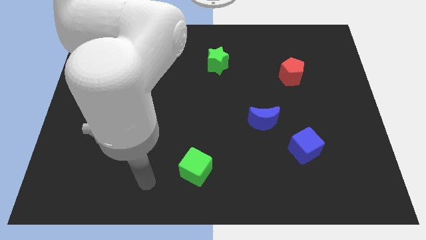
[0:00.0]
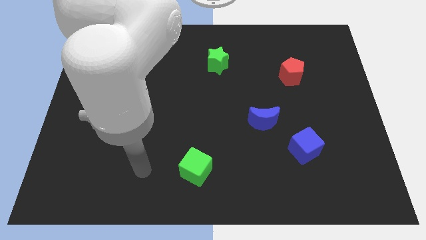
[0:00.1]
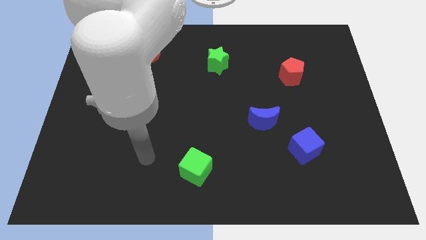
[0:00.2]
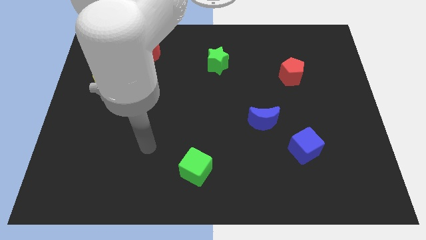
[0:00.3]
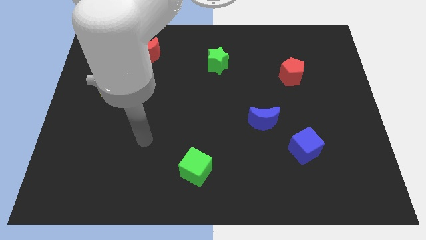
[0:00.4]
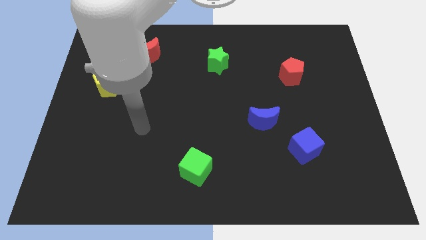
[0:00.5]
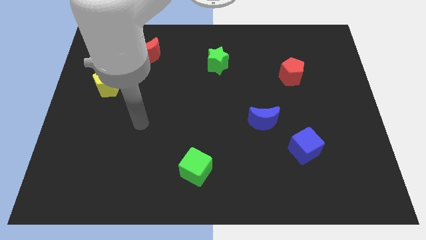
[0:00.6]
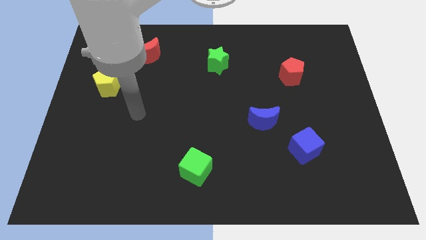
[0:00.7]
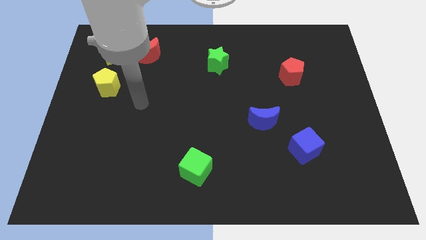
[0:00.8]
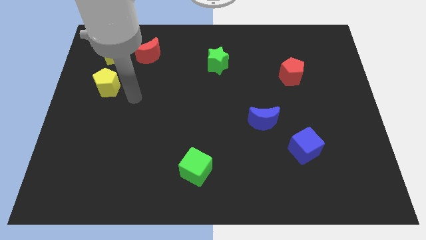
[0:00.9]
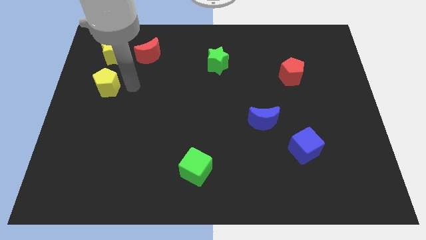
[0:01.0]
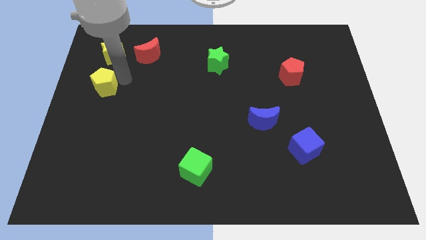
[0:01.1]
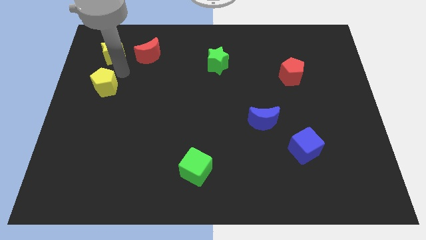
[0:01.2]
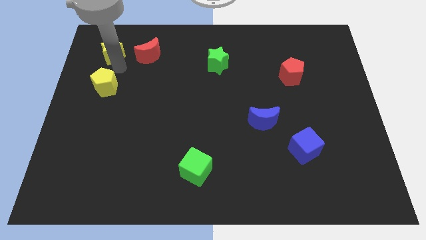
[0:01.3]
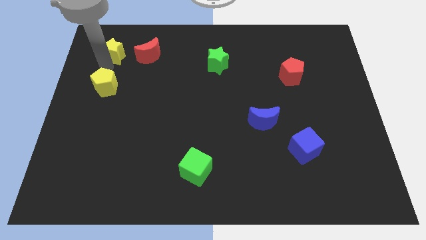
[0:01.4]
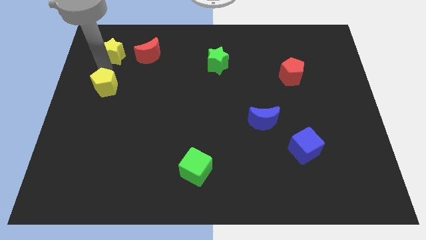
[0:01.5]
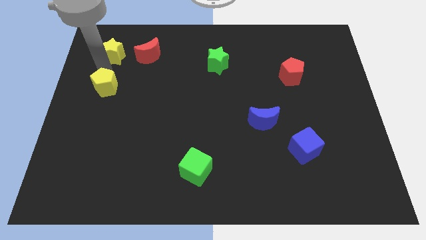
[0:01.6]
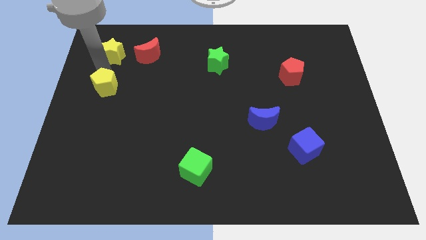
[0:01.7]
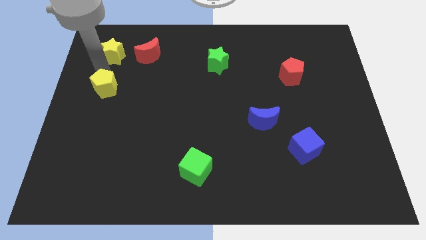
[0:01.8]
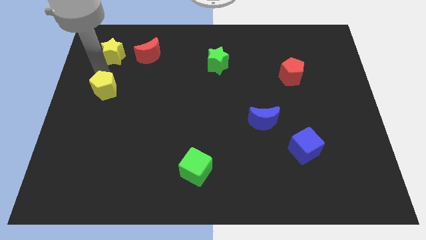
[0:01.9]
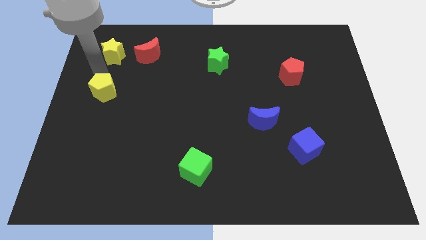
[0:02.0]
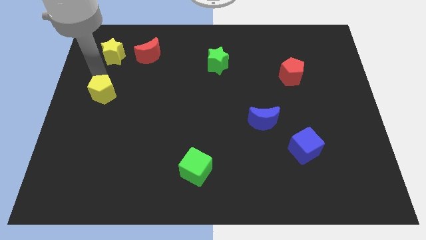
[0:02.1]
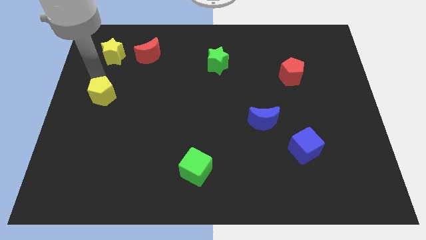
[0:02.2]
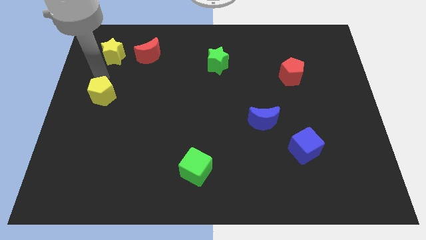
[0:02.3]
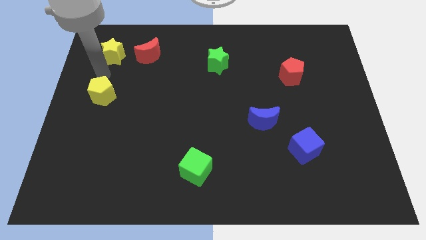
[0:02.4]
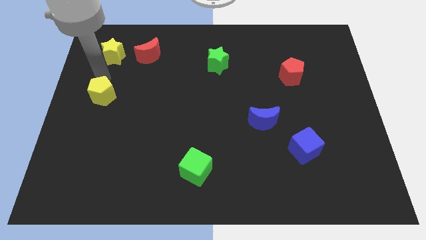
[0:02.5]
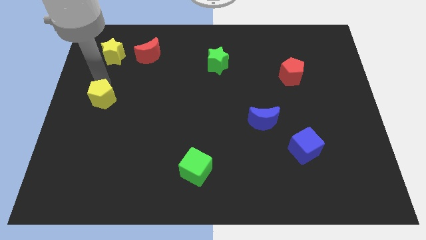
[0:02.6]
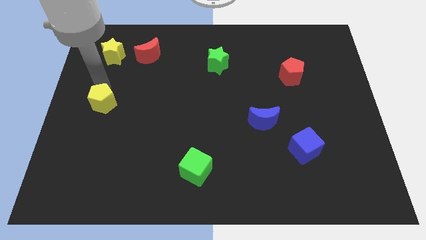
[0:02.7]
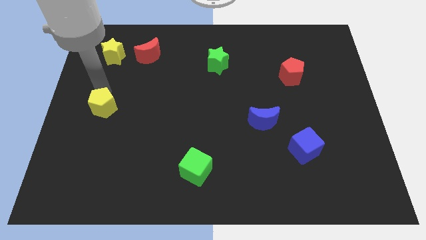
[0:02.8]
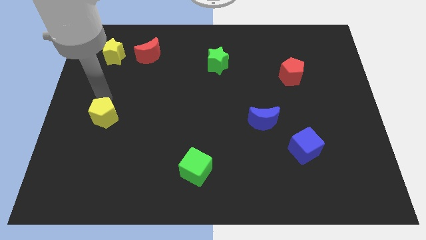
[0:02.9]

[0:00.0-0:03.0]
push the yellow pentagon down somewhat

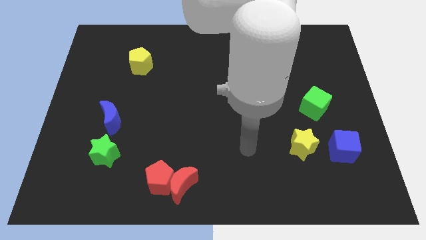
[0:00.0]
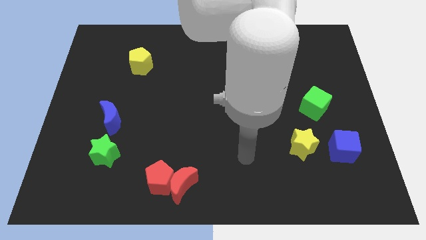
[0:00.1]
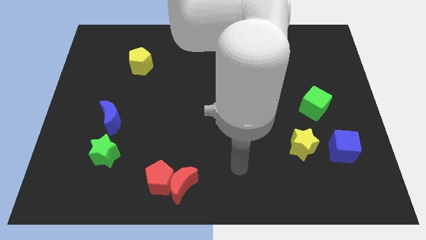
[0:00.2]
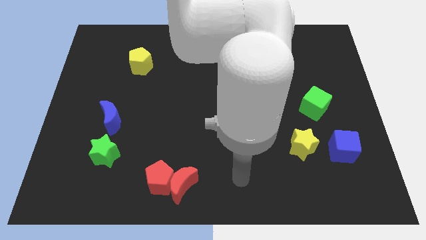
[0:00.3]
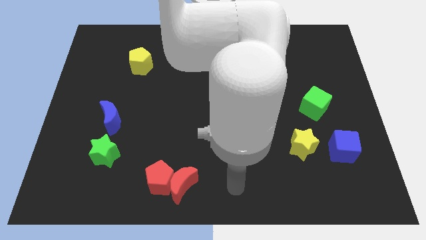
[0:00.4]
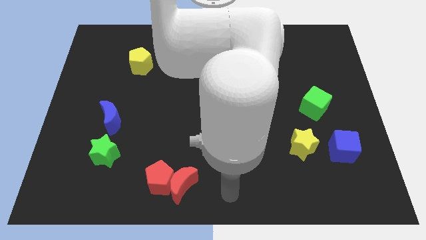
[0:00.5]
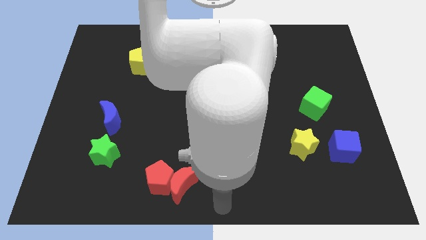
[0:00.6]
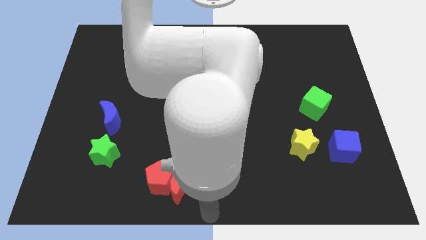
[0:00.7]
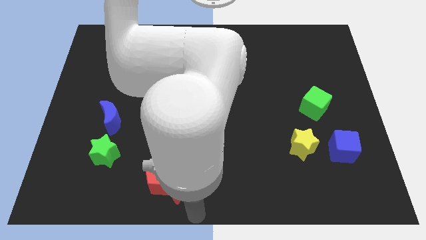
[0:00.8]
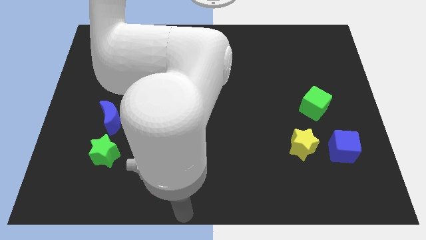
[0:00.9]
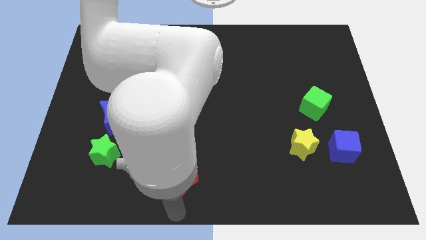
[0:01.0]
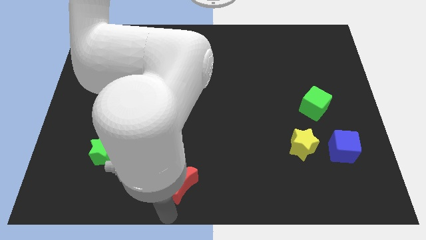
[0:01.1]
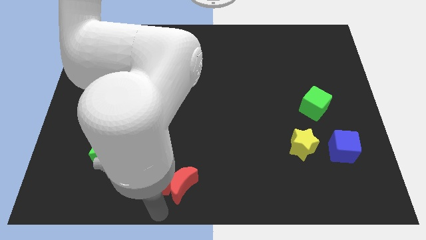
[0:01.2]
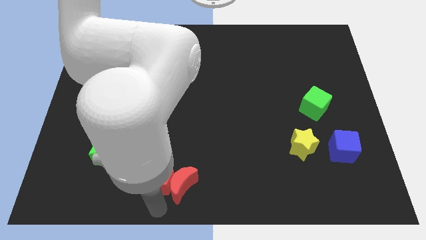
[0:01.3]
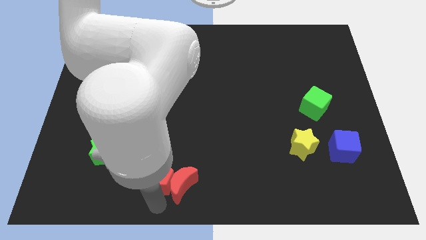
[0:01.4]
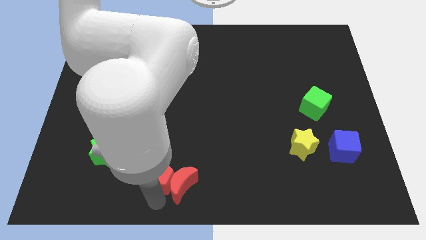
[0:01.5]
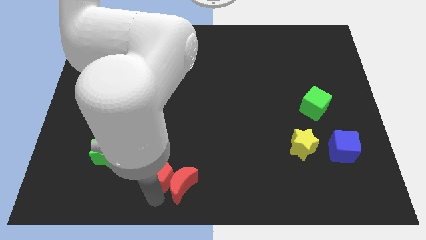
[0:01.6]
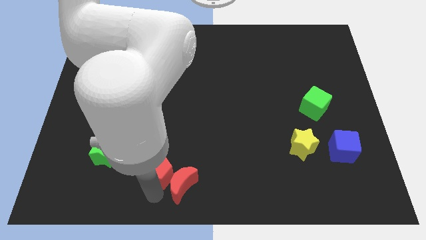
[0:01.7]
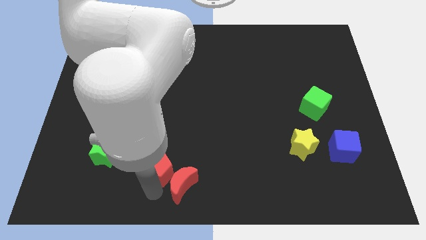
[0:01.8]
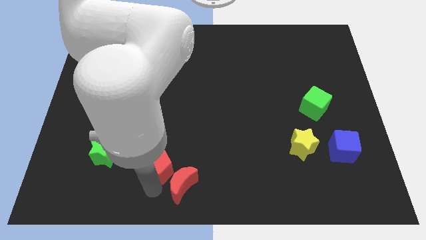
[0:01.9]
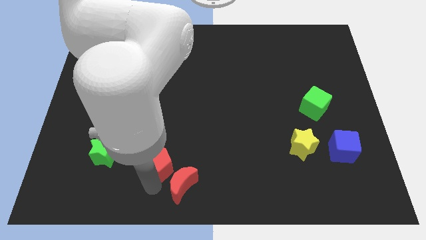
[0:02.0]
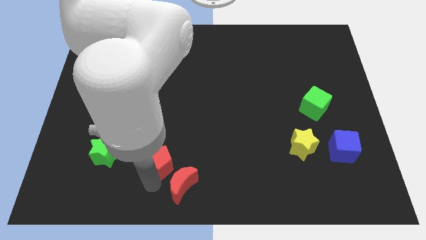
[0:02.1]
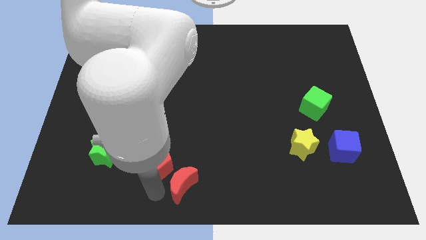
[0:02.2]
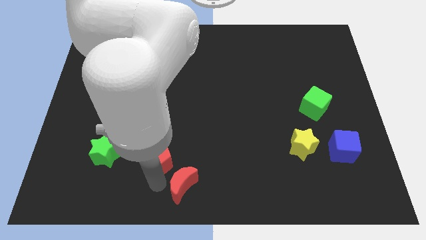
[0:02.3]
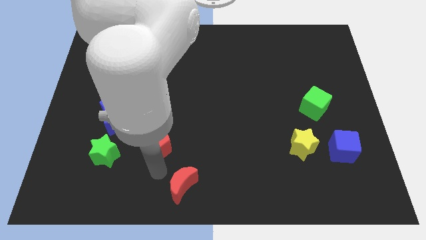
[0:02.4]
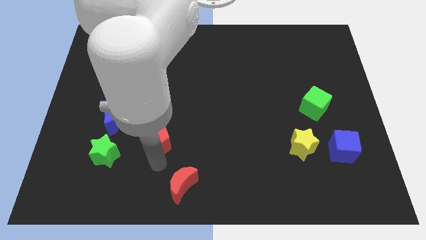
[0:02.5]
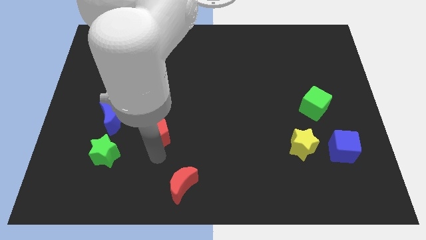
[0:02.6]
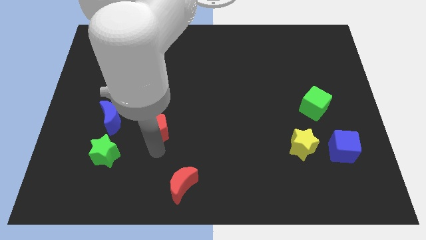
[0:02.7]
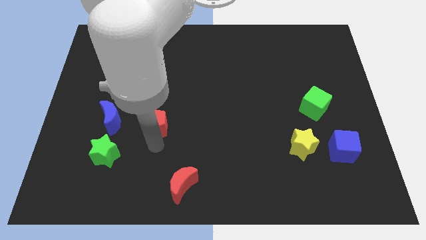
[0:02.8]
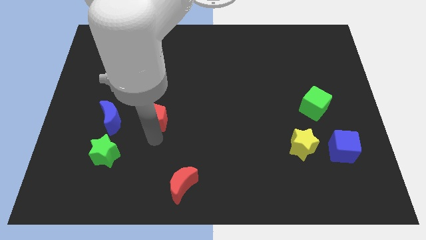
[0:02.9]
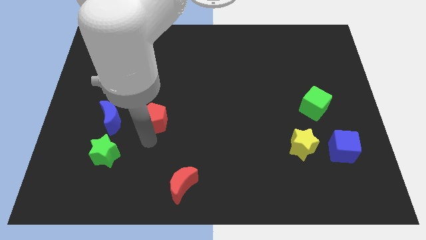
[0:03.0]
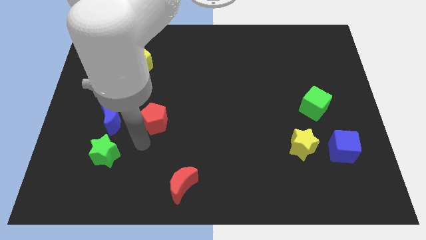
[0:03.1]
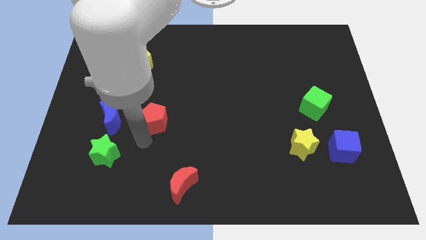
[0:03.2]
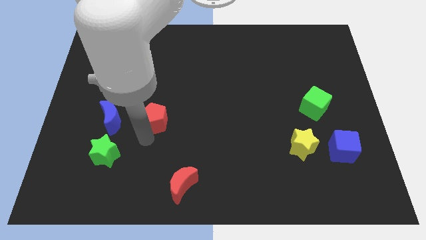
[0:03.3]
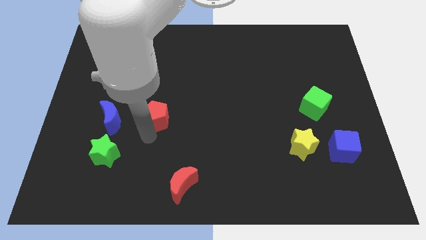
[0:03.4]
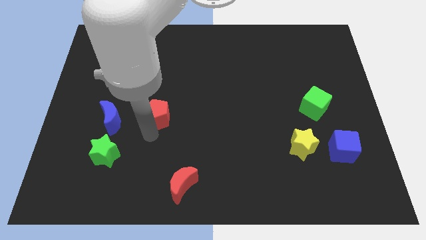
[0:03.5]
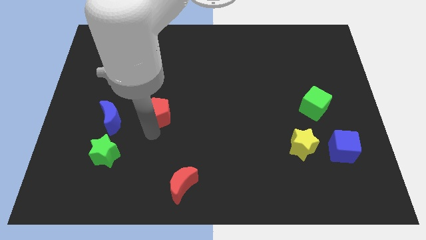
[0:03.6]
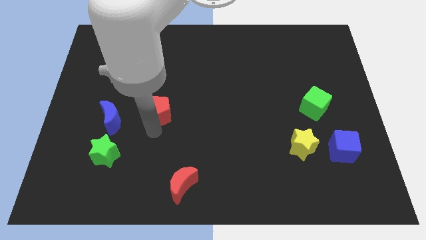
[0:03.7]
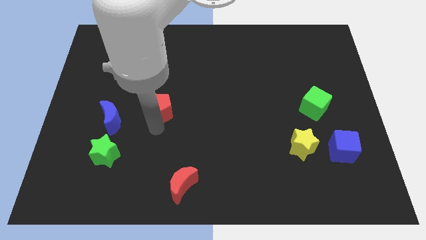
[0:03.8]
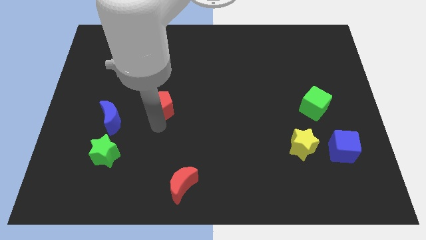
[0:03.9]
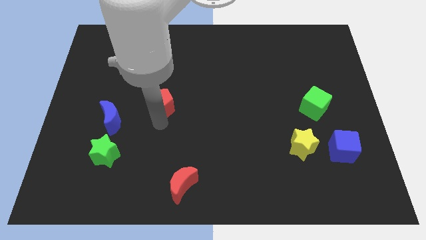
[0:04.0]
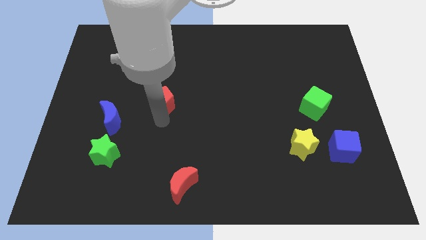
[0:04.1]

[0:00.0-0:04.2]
push the red pentagon up

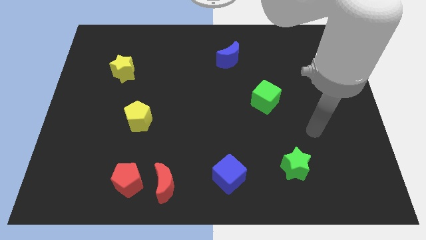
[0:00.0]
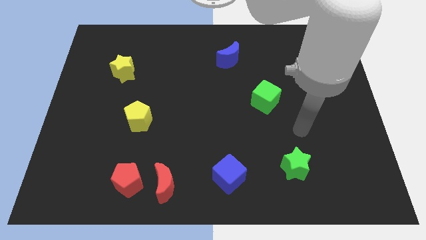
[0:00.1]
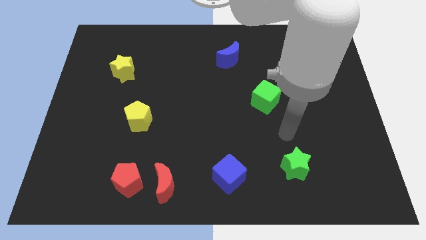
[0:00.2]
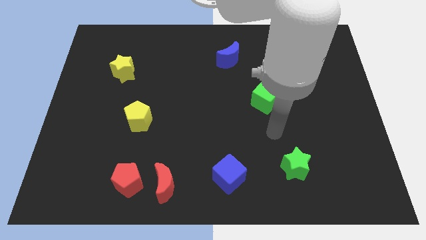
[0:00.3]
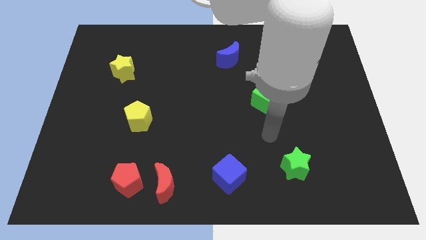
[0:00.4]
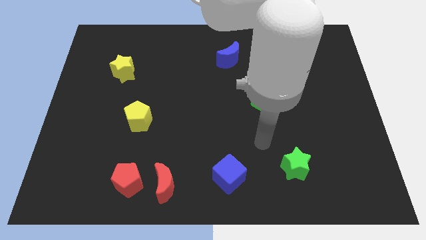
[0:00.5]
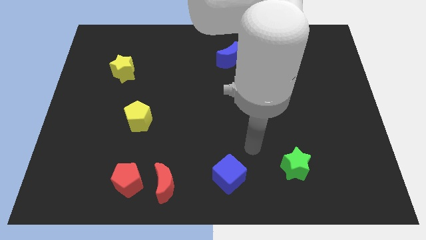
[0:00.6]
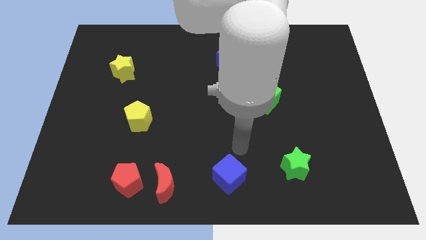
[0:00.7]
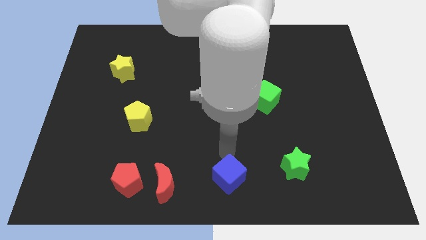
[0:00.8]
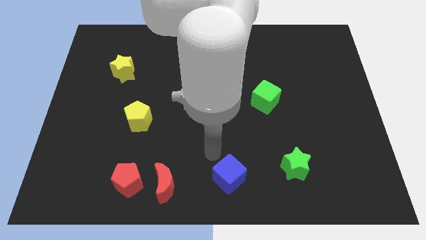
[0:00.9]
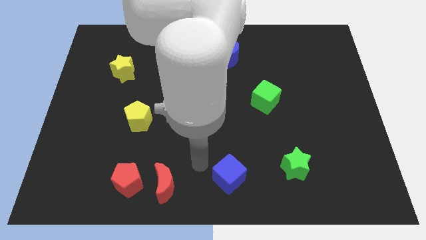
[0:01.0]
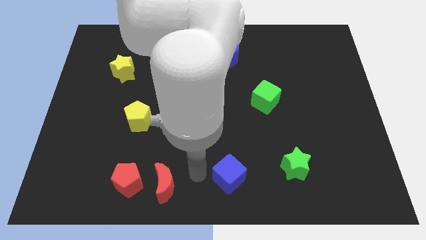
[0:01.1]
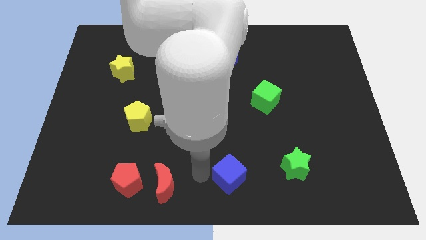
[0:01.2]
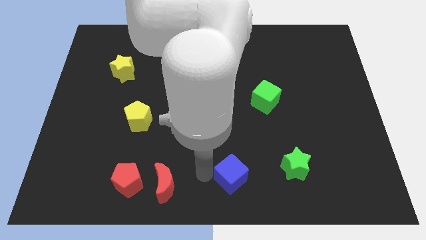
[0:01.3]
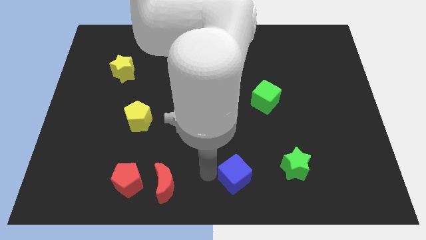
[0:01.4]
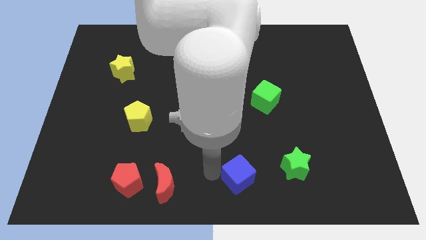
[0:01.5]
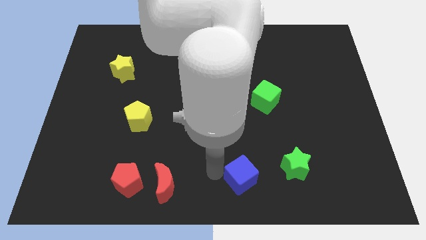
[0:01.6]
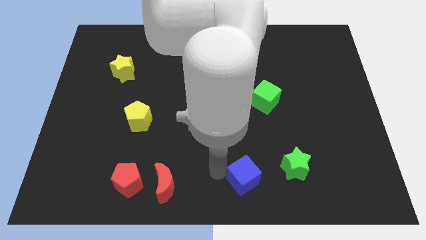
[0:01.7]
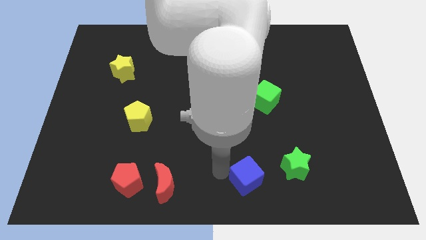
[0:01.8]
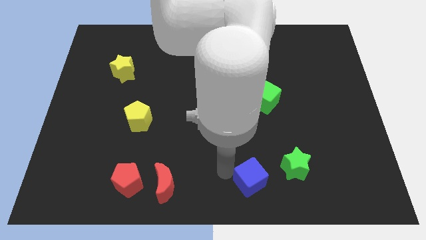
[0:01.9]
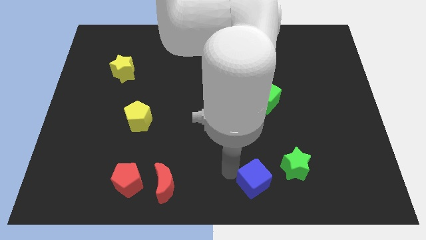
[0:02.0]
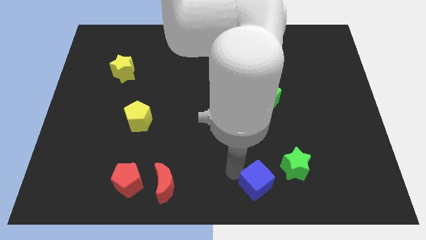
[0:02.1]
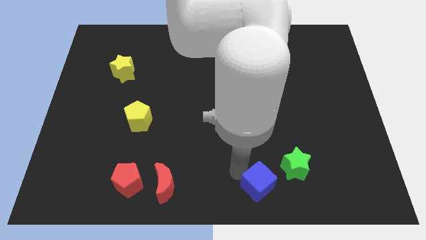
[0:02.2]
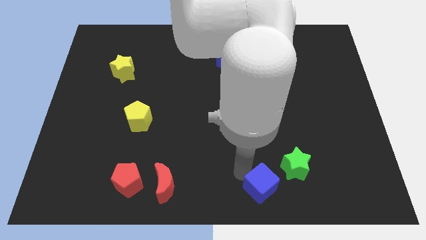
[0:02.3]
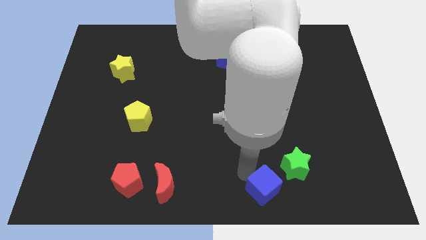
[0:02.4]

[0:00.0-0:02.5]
slide the blue cube to the right somewhat
